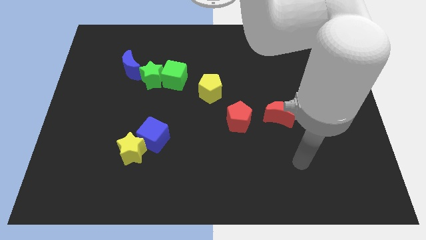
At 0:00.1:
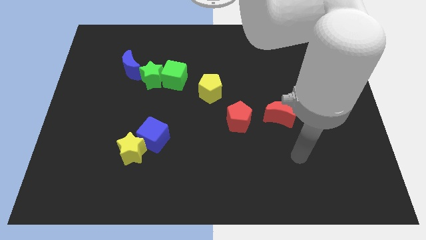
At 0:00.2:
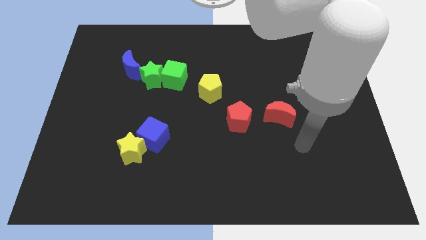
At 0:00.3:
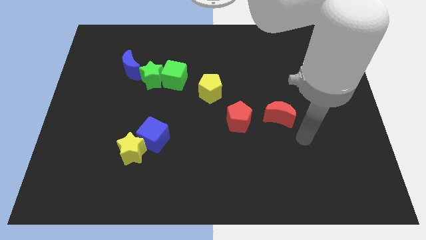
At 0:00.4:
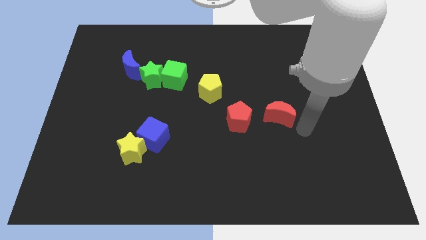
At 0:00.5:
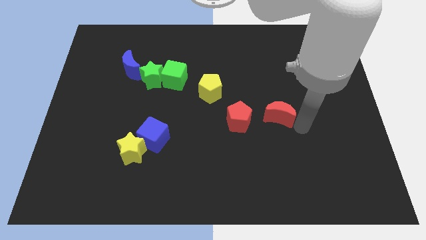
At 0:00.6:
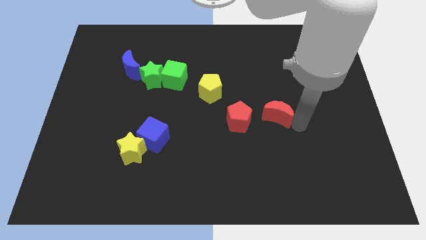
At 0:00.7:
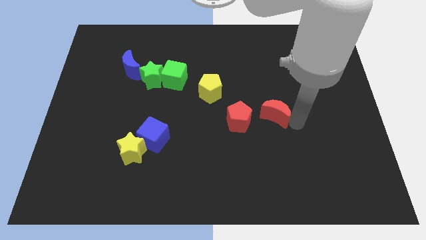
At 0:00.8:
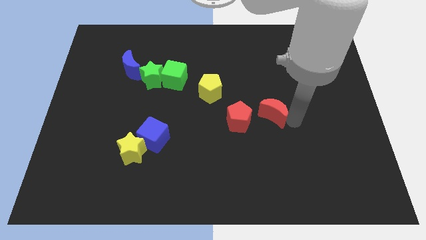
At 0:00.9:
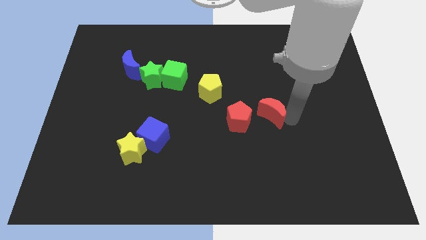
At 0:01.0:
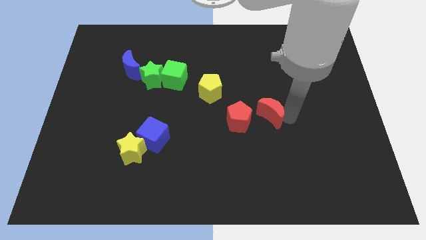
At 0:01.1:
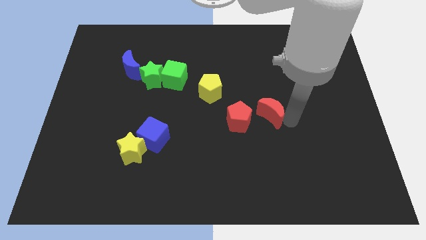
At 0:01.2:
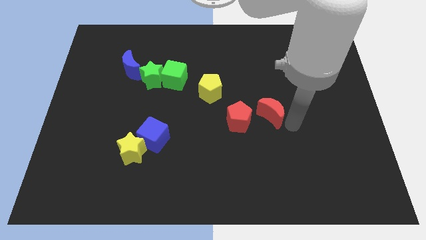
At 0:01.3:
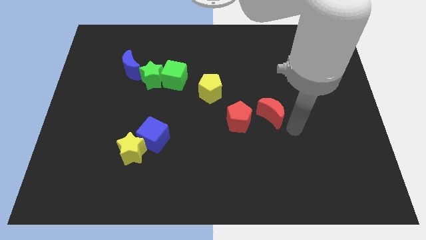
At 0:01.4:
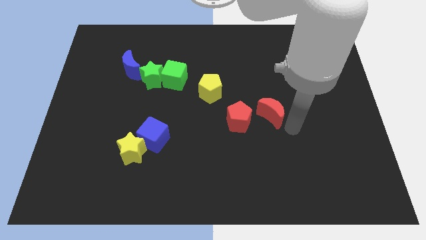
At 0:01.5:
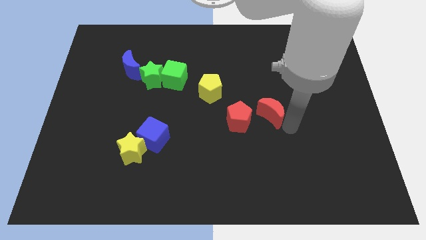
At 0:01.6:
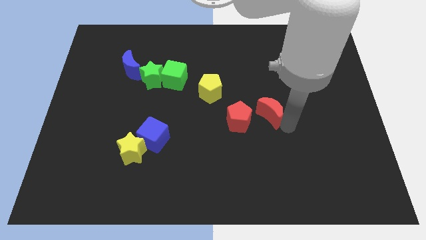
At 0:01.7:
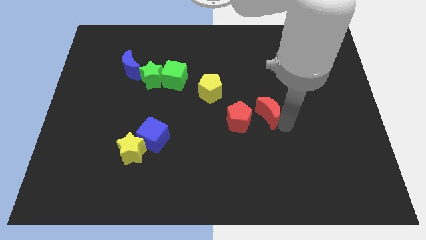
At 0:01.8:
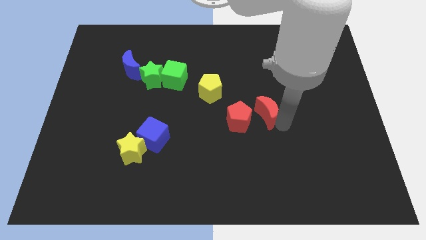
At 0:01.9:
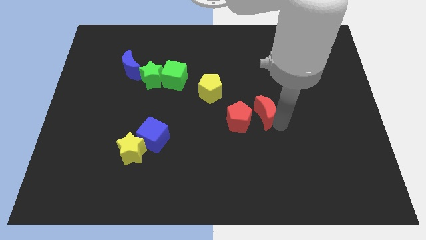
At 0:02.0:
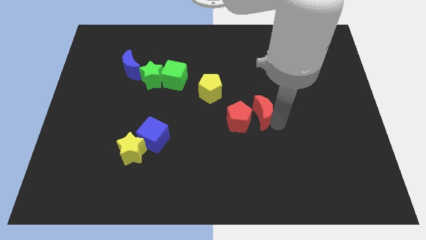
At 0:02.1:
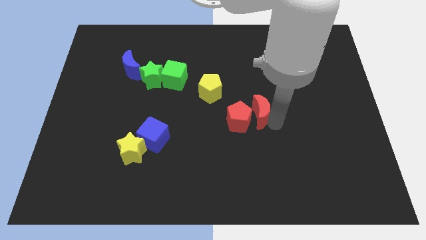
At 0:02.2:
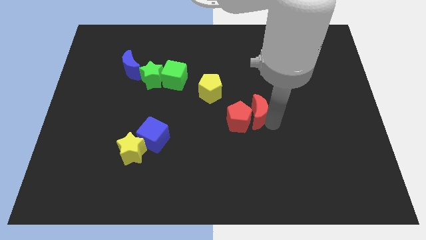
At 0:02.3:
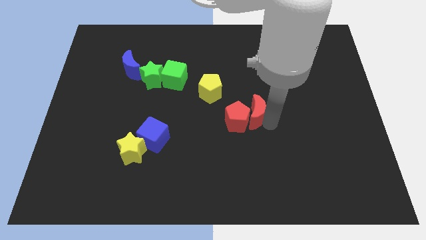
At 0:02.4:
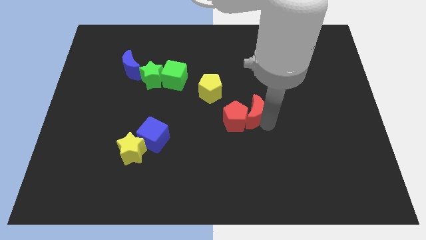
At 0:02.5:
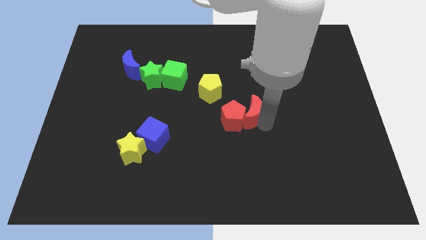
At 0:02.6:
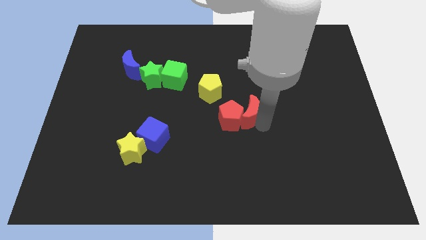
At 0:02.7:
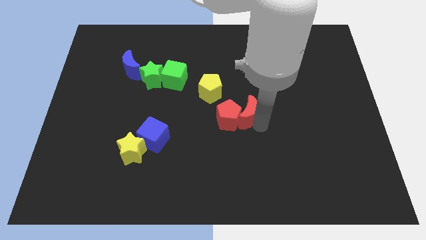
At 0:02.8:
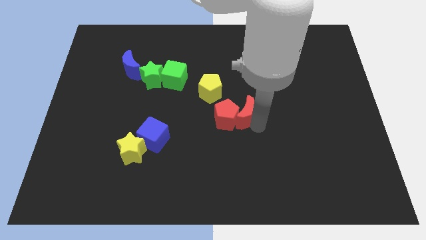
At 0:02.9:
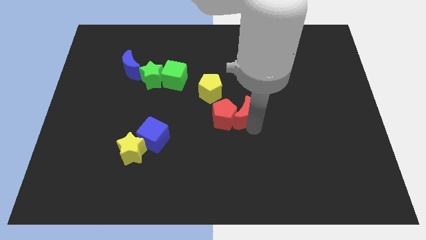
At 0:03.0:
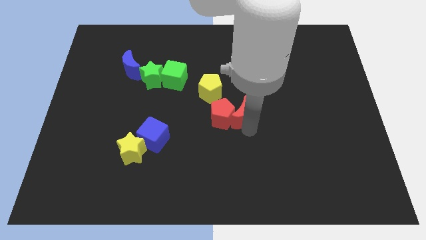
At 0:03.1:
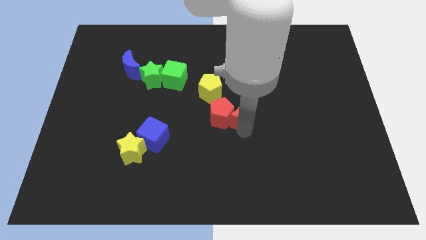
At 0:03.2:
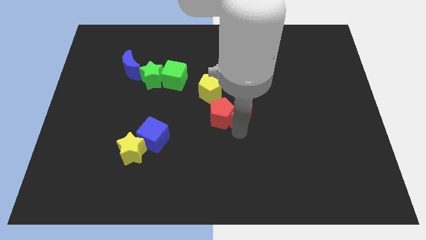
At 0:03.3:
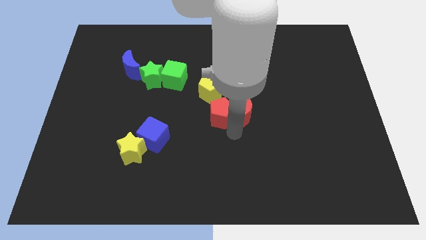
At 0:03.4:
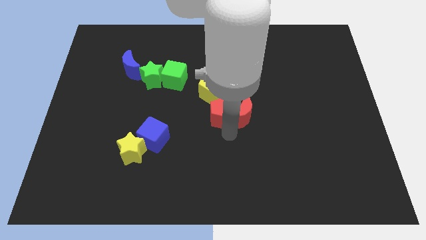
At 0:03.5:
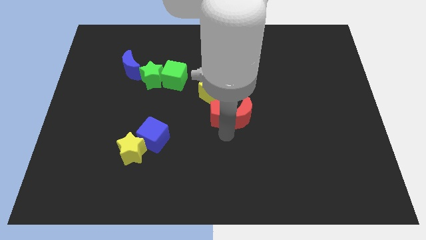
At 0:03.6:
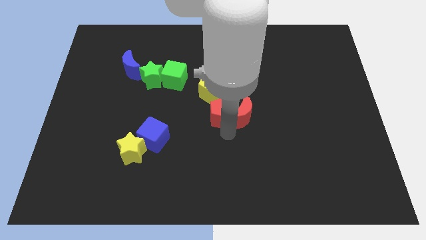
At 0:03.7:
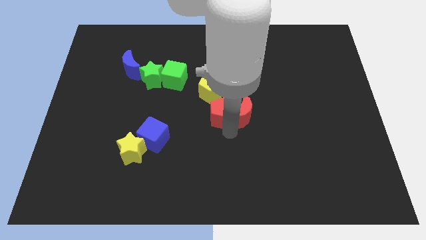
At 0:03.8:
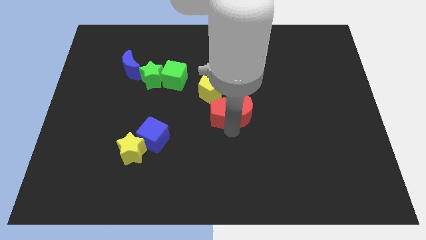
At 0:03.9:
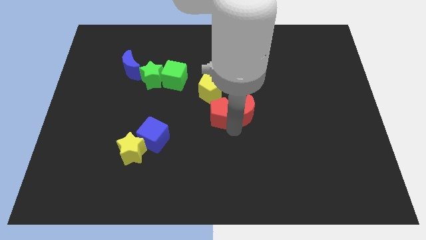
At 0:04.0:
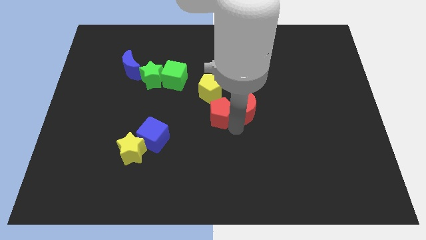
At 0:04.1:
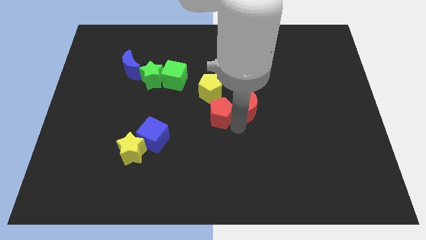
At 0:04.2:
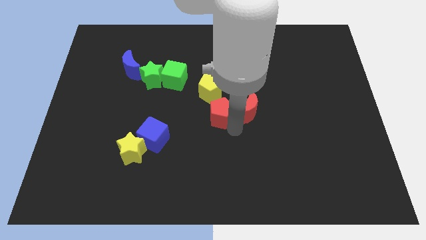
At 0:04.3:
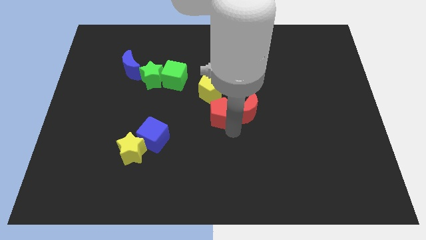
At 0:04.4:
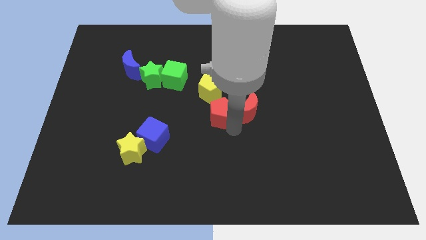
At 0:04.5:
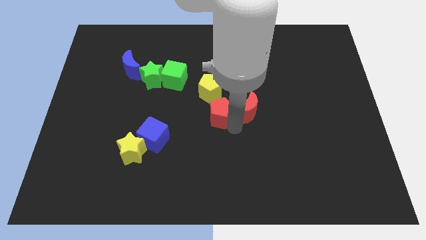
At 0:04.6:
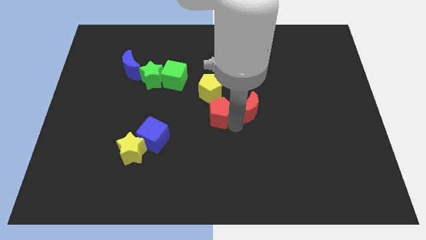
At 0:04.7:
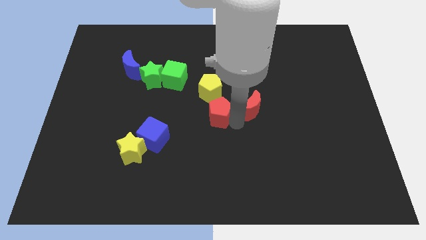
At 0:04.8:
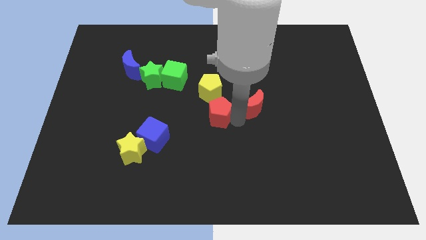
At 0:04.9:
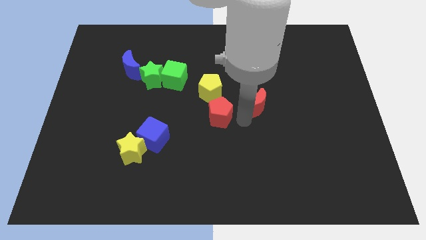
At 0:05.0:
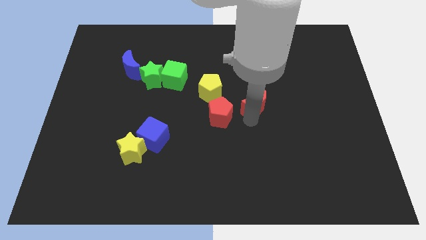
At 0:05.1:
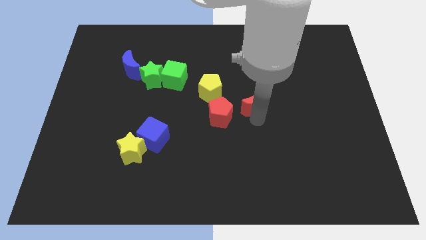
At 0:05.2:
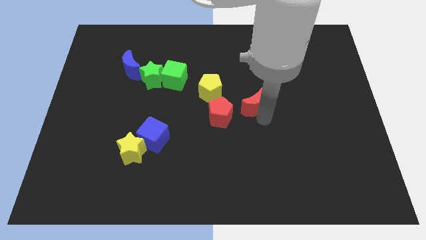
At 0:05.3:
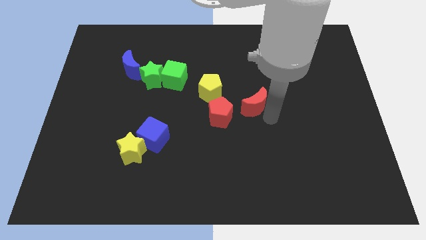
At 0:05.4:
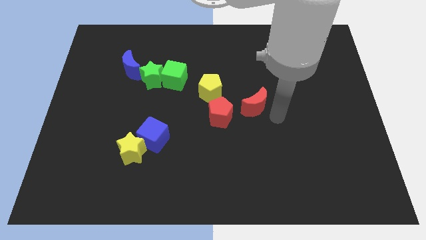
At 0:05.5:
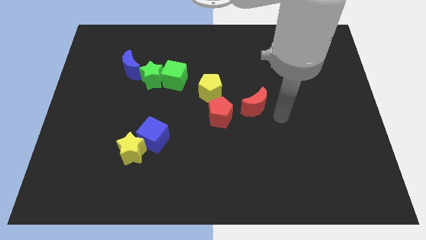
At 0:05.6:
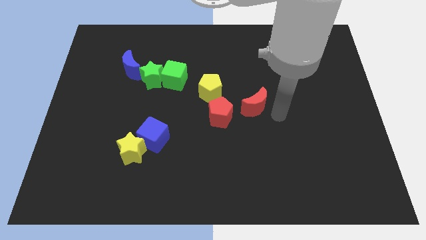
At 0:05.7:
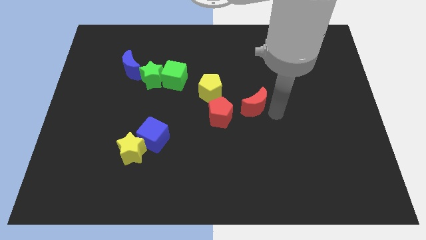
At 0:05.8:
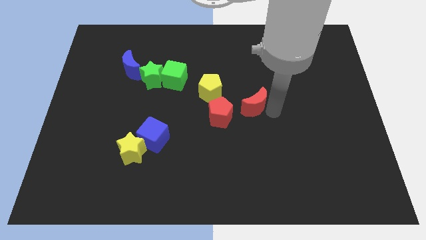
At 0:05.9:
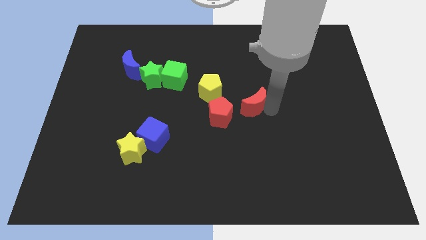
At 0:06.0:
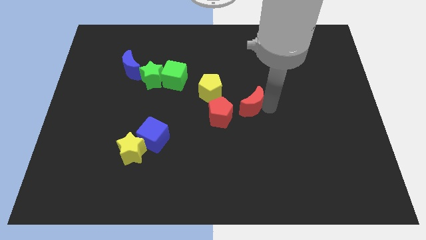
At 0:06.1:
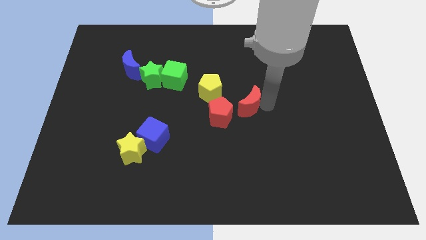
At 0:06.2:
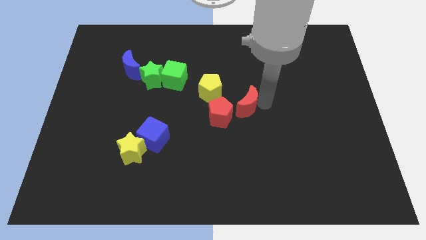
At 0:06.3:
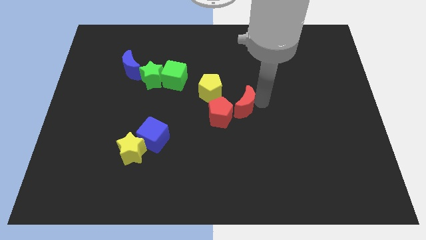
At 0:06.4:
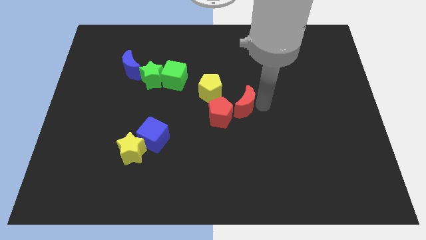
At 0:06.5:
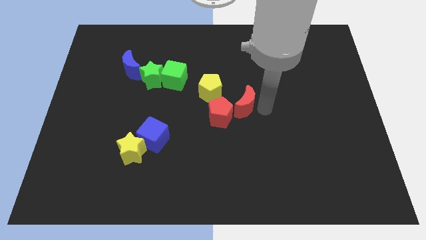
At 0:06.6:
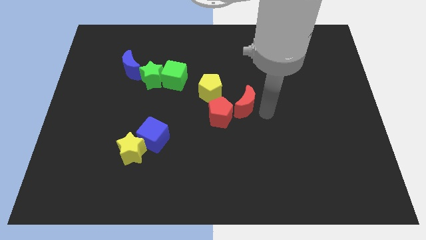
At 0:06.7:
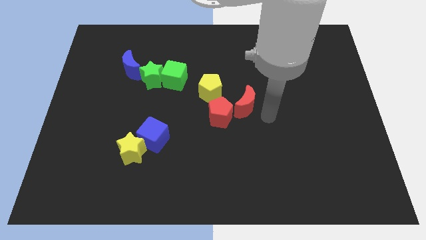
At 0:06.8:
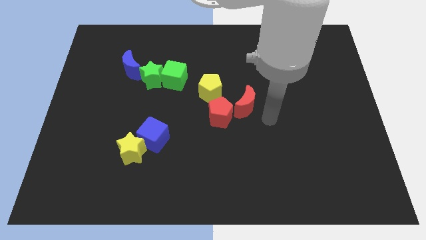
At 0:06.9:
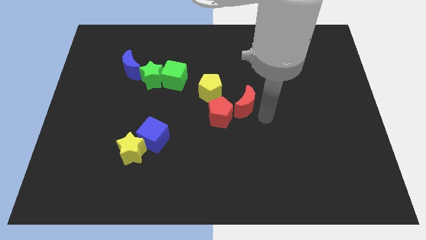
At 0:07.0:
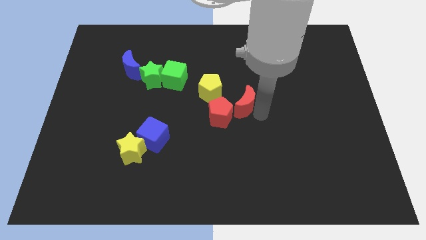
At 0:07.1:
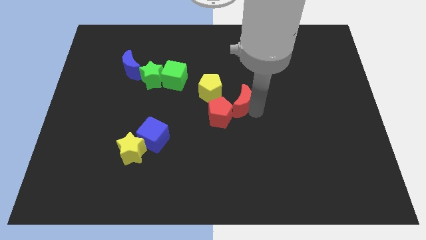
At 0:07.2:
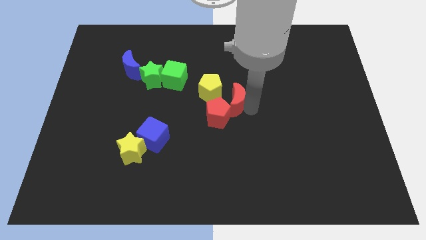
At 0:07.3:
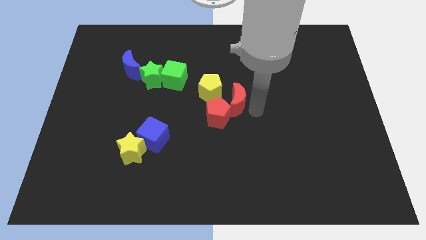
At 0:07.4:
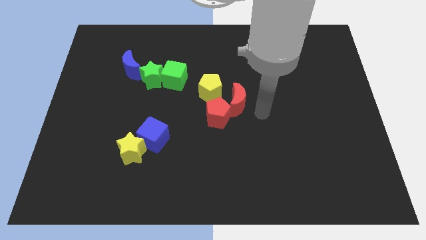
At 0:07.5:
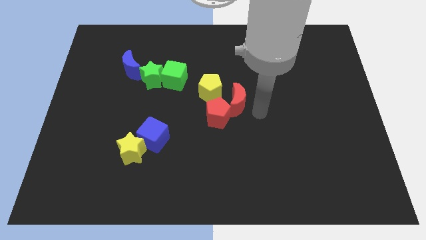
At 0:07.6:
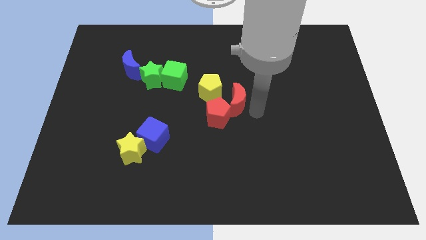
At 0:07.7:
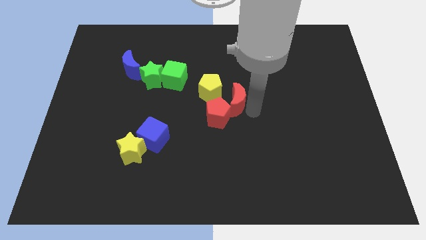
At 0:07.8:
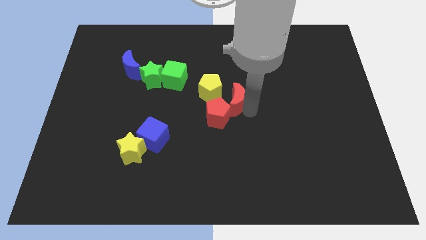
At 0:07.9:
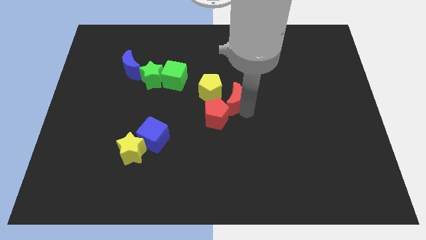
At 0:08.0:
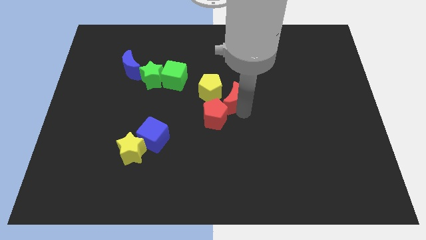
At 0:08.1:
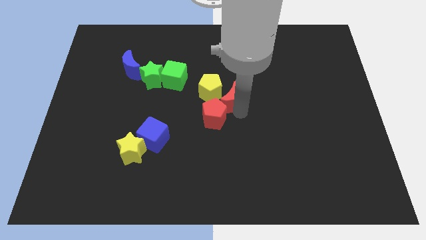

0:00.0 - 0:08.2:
slide the red moon next to the yellow pentagon
